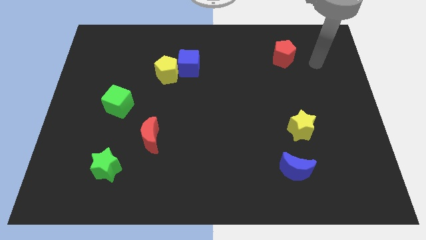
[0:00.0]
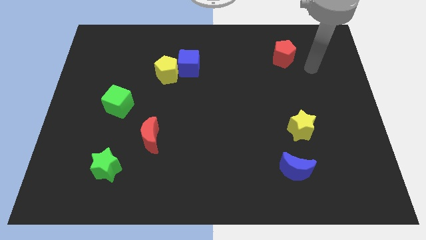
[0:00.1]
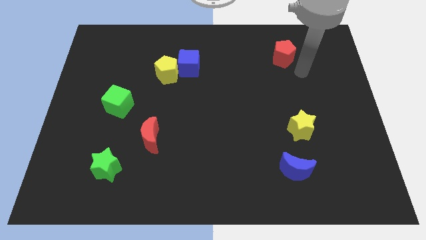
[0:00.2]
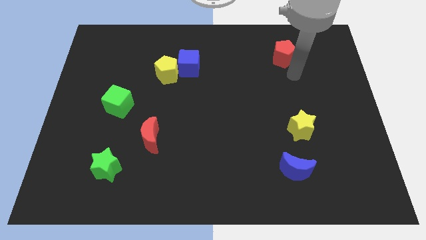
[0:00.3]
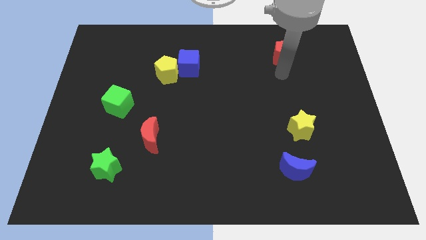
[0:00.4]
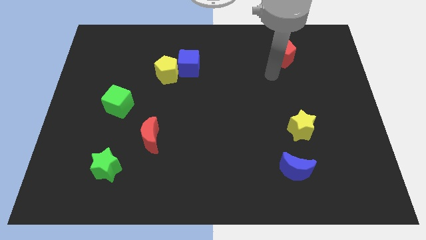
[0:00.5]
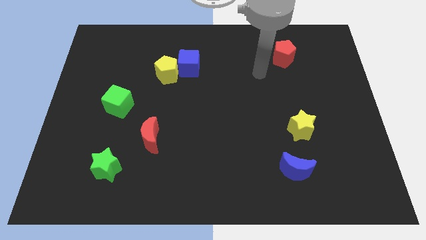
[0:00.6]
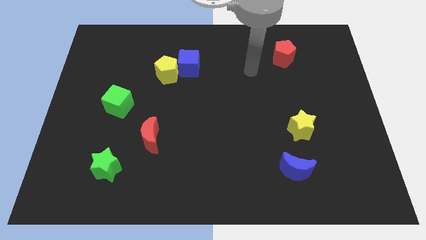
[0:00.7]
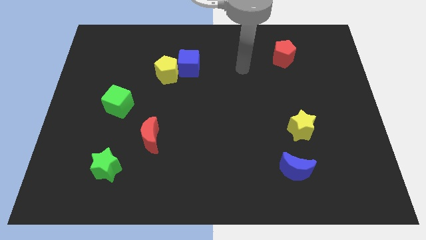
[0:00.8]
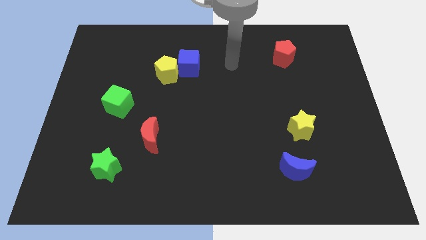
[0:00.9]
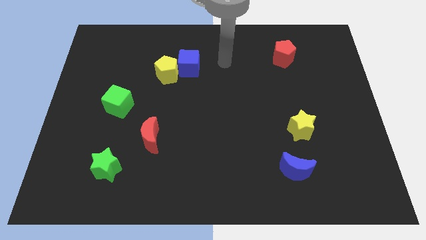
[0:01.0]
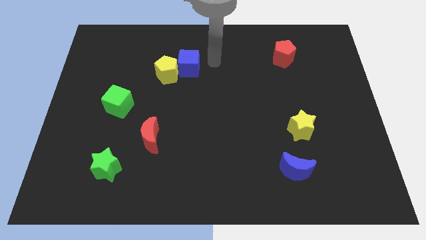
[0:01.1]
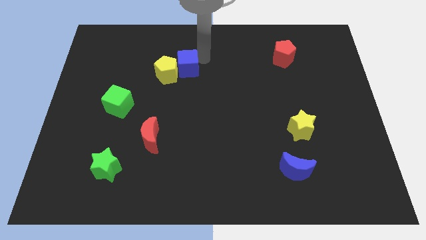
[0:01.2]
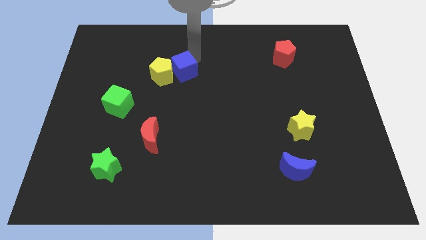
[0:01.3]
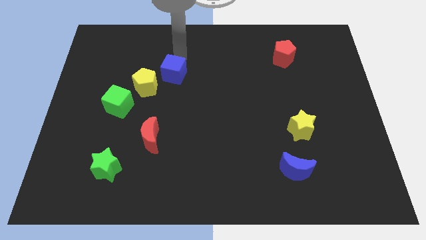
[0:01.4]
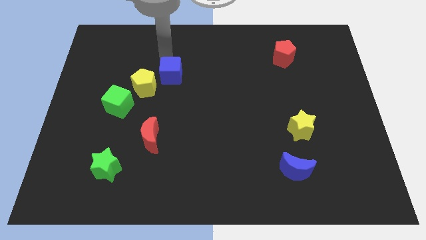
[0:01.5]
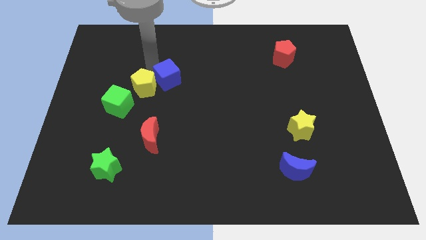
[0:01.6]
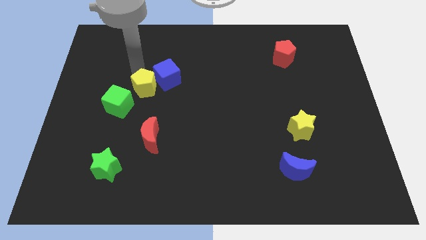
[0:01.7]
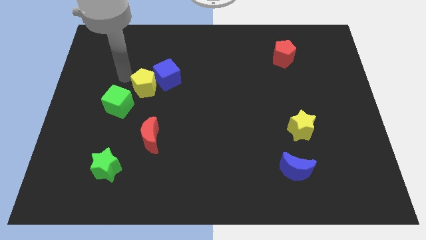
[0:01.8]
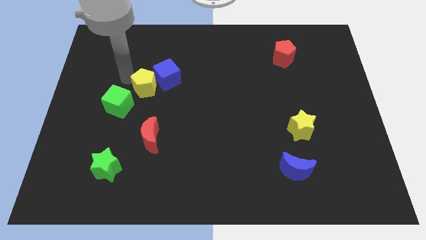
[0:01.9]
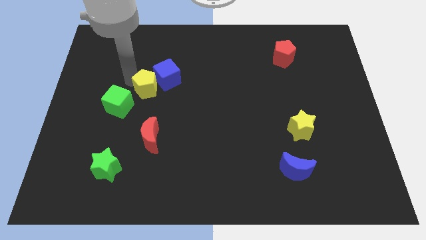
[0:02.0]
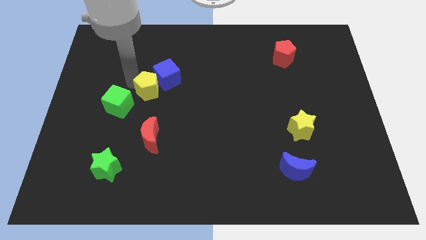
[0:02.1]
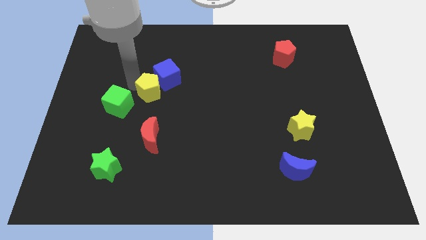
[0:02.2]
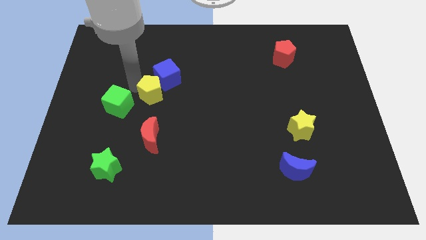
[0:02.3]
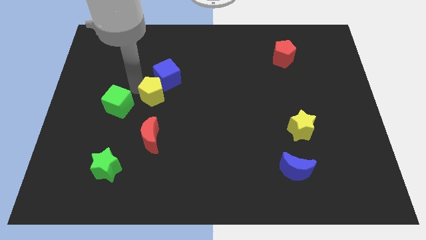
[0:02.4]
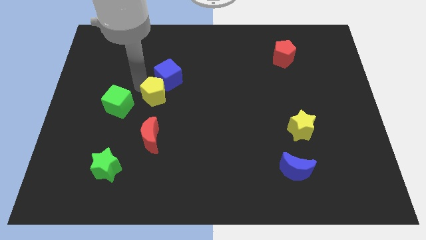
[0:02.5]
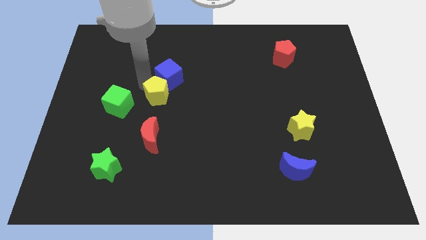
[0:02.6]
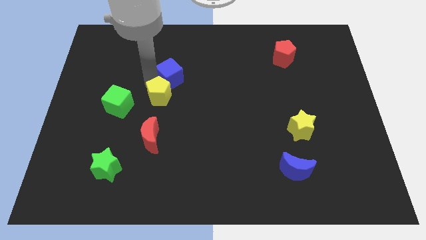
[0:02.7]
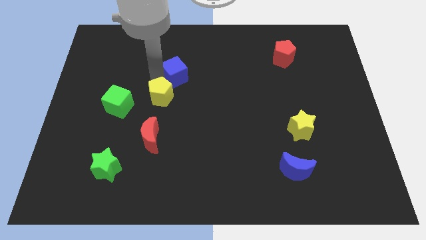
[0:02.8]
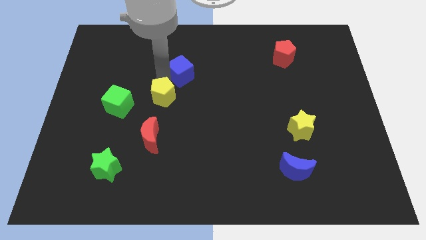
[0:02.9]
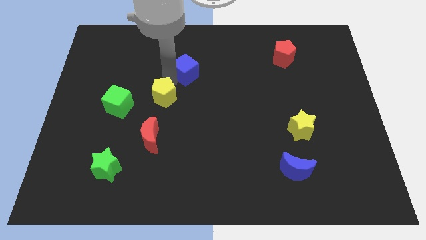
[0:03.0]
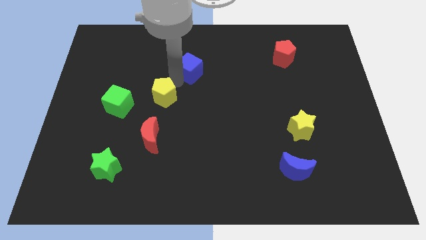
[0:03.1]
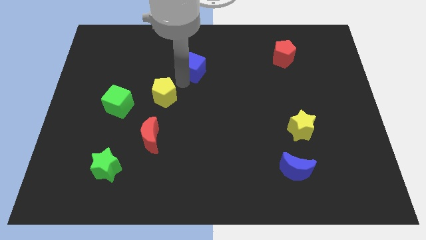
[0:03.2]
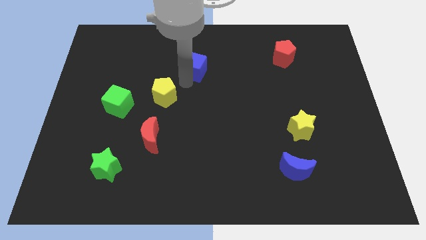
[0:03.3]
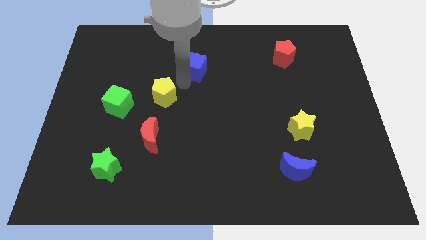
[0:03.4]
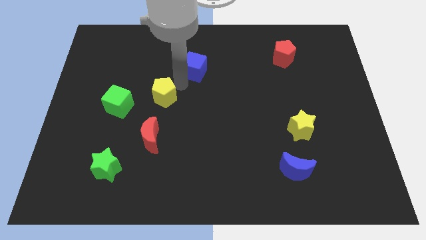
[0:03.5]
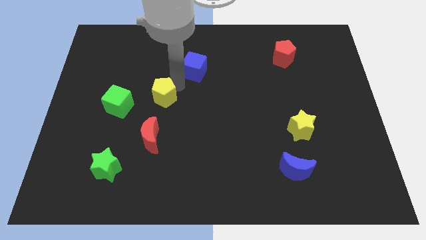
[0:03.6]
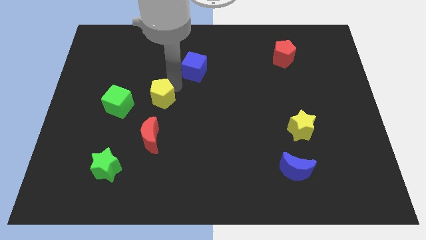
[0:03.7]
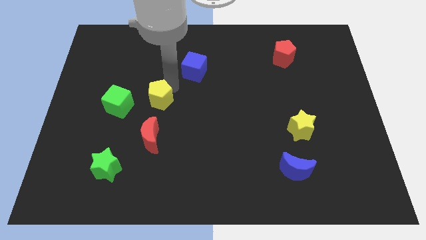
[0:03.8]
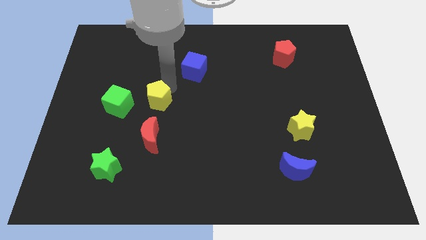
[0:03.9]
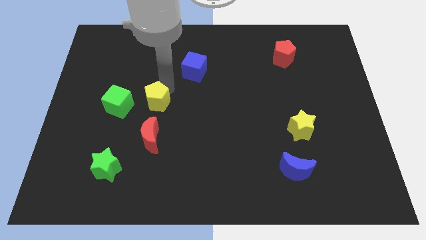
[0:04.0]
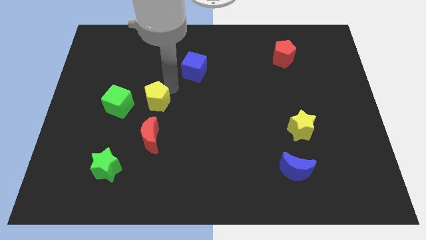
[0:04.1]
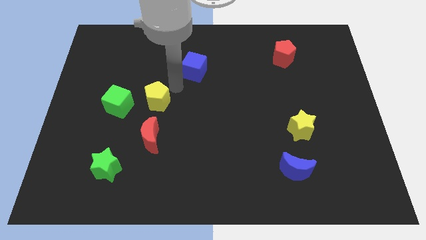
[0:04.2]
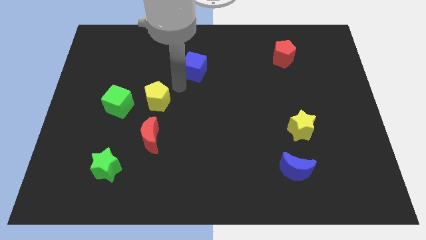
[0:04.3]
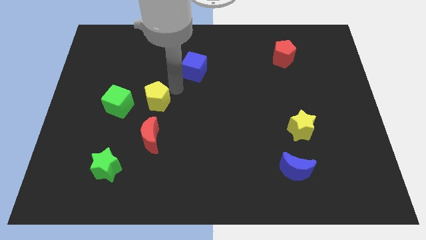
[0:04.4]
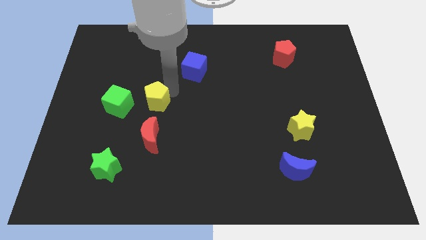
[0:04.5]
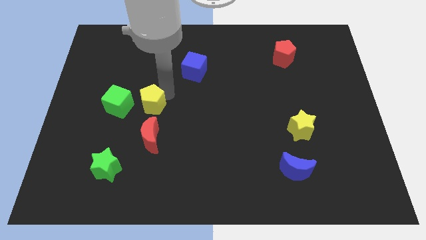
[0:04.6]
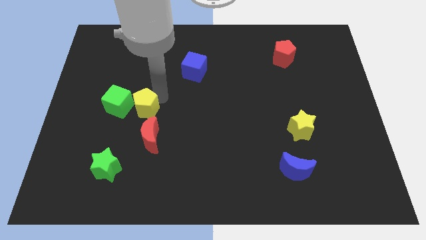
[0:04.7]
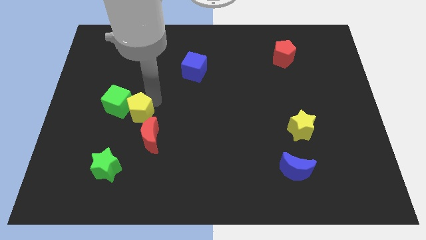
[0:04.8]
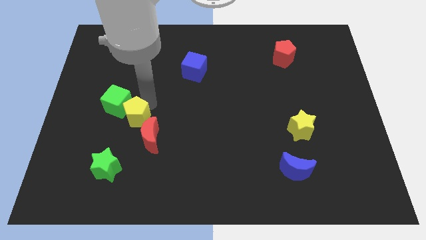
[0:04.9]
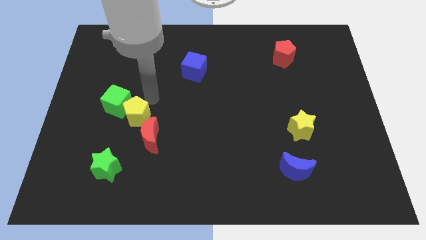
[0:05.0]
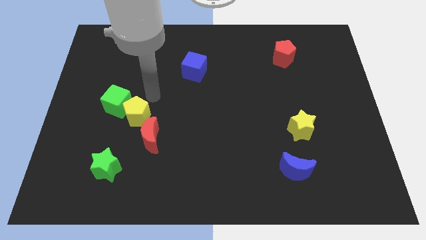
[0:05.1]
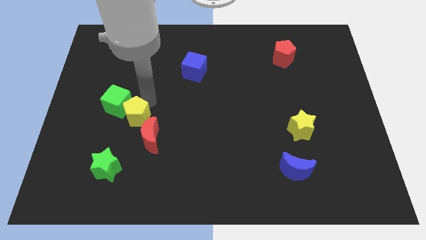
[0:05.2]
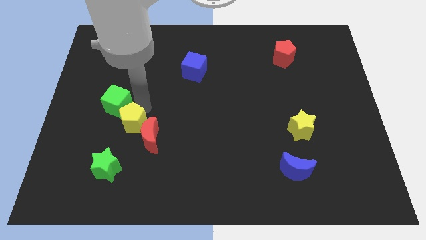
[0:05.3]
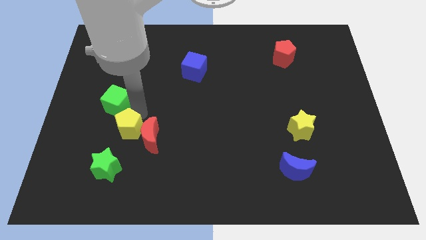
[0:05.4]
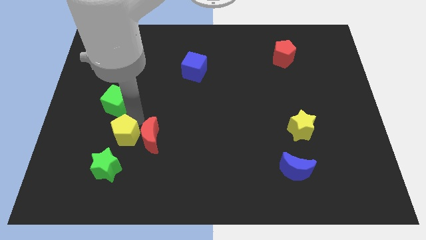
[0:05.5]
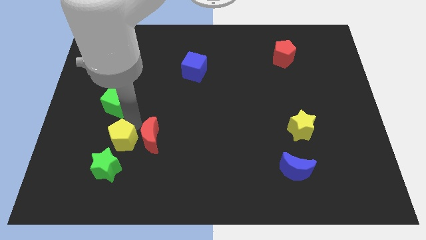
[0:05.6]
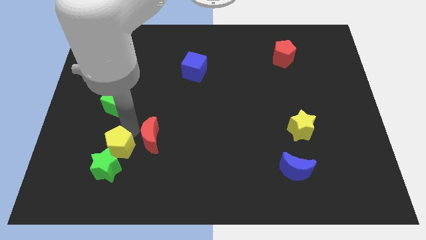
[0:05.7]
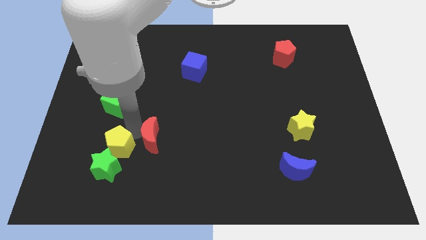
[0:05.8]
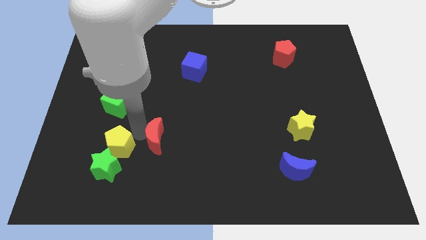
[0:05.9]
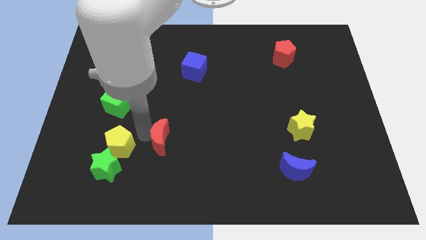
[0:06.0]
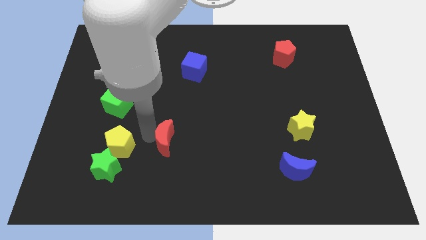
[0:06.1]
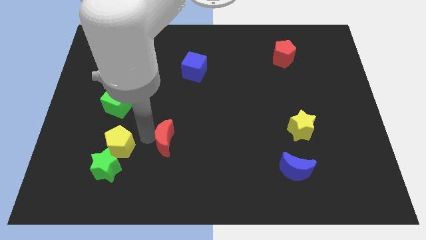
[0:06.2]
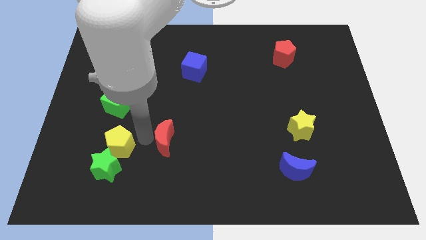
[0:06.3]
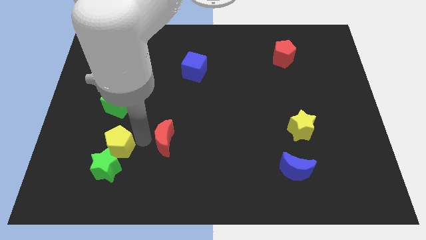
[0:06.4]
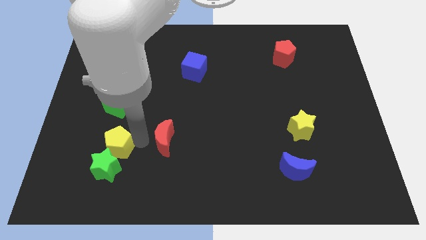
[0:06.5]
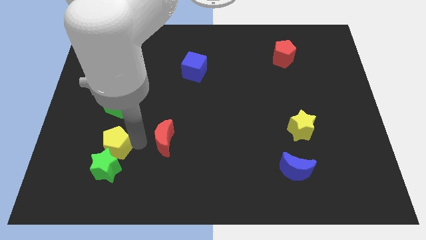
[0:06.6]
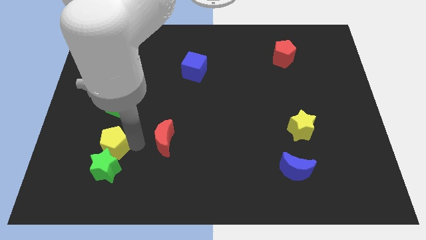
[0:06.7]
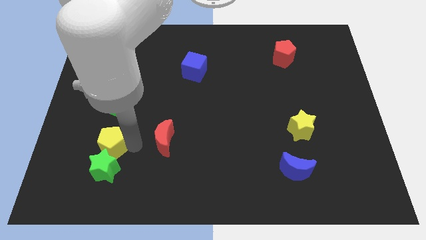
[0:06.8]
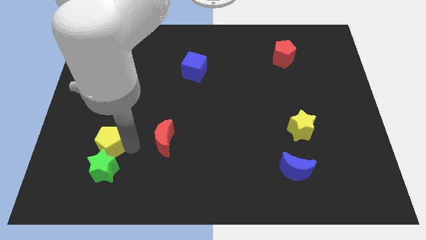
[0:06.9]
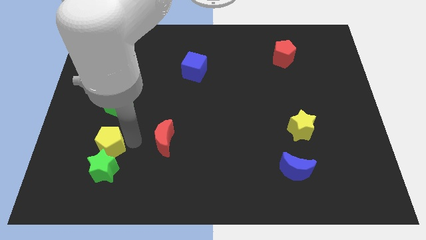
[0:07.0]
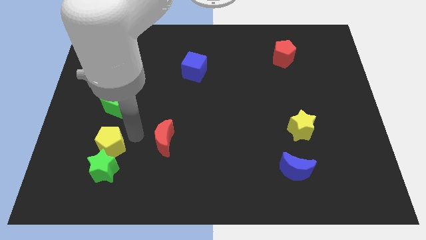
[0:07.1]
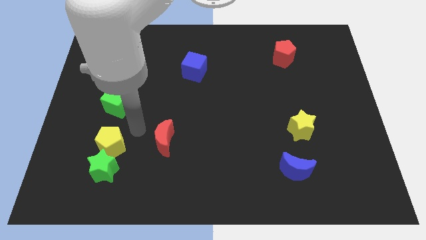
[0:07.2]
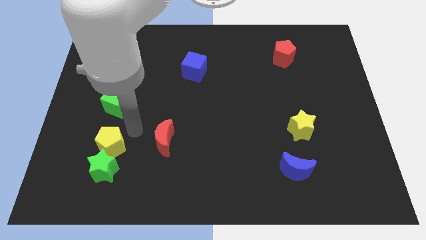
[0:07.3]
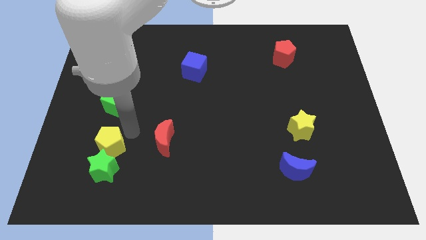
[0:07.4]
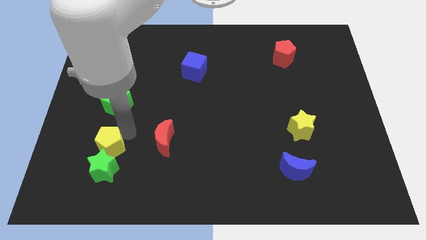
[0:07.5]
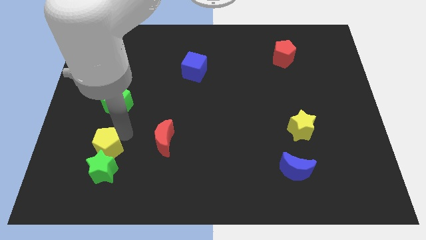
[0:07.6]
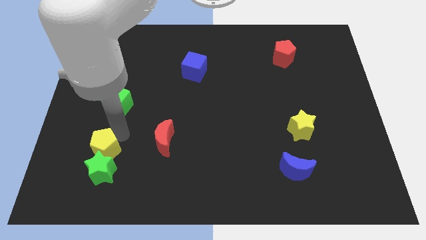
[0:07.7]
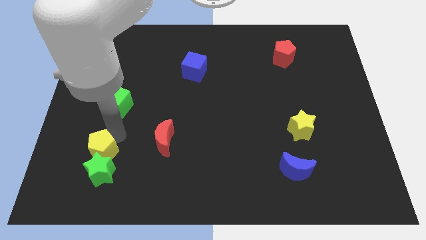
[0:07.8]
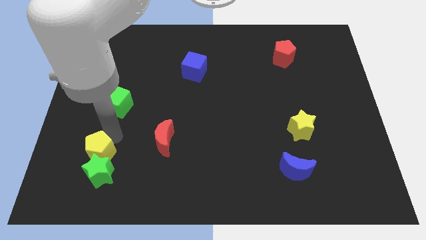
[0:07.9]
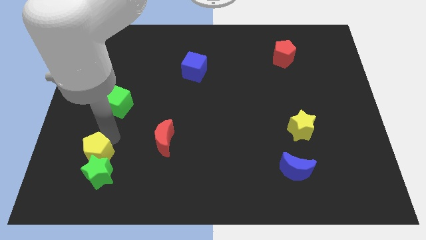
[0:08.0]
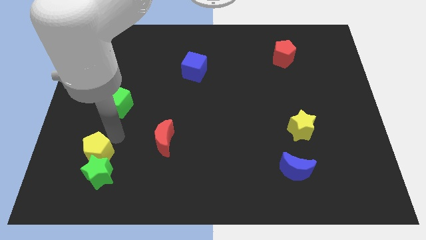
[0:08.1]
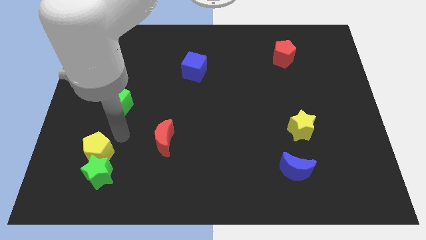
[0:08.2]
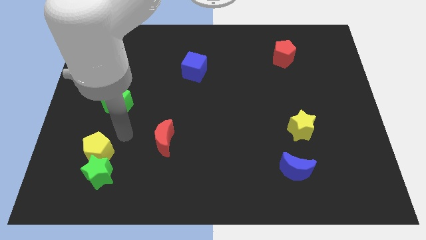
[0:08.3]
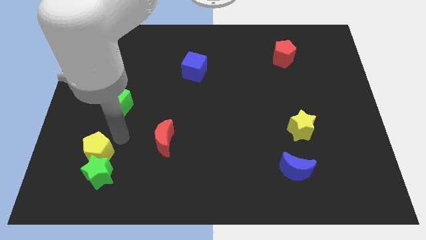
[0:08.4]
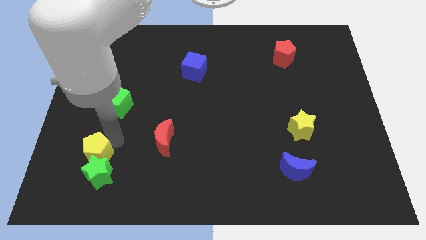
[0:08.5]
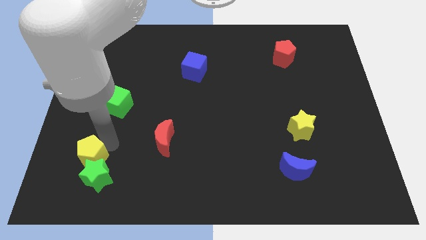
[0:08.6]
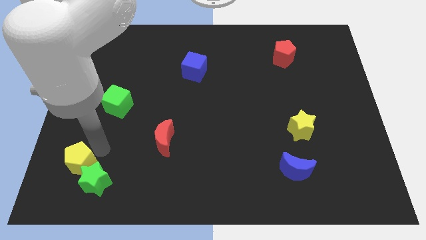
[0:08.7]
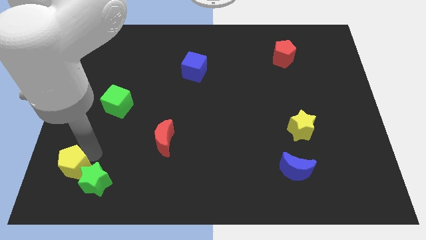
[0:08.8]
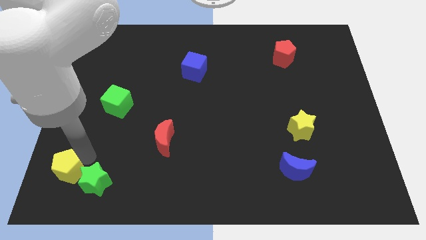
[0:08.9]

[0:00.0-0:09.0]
move the yellow pentagon to the lower left corner
